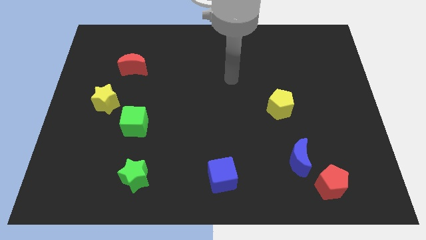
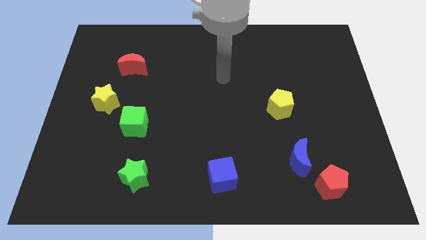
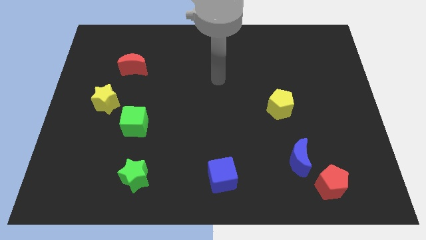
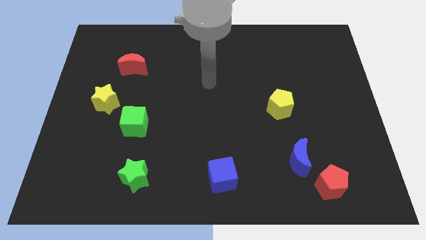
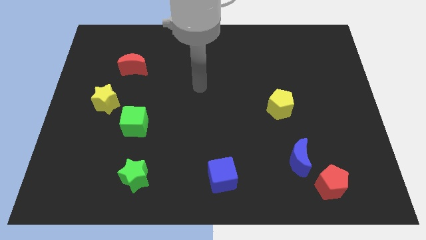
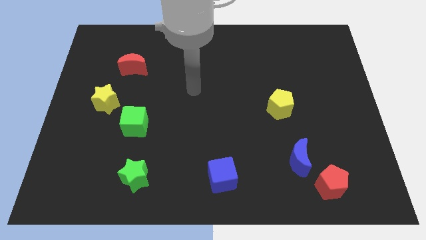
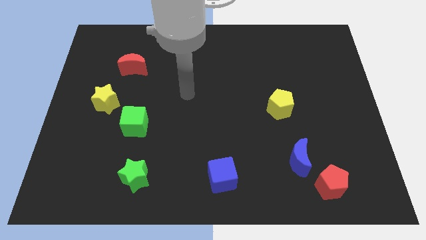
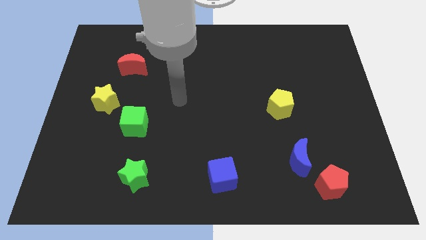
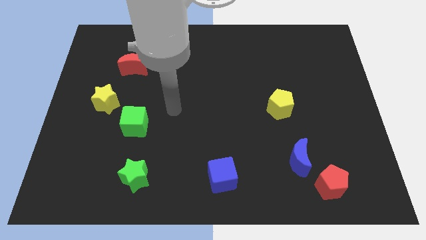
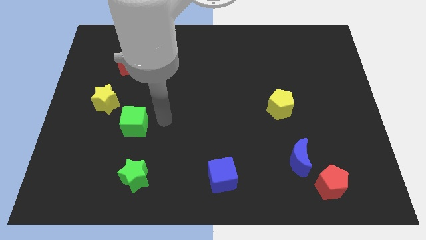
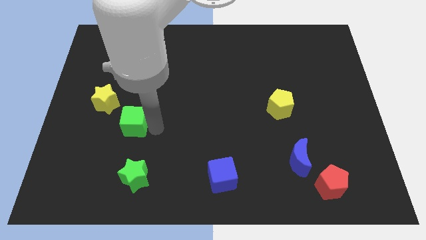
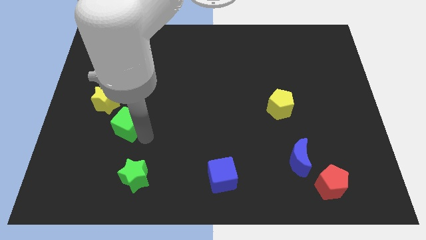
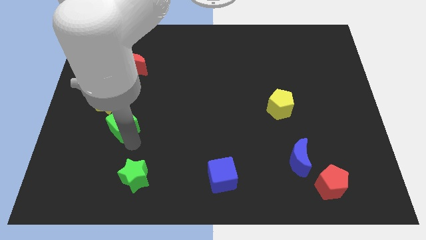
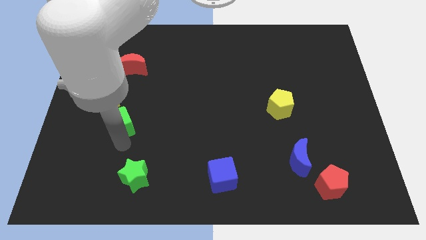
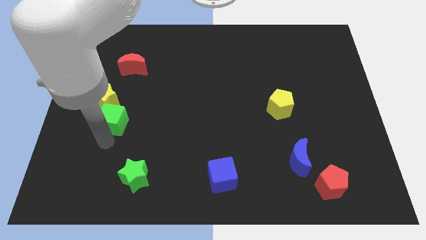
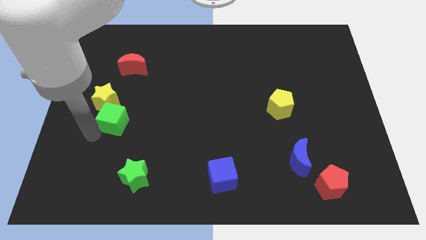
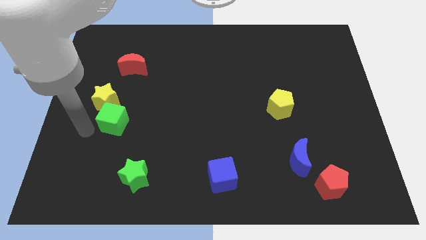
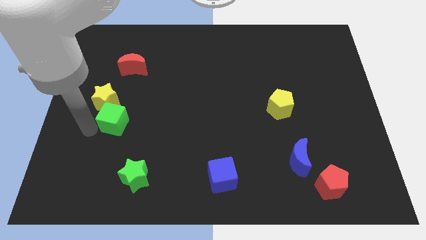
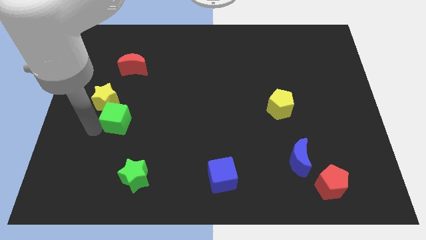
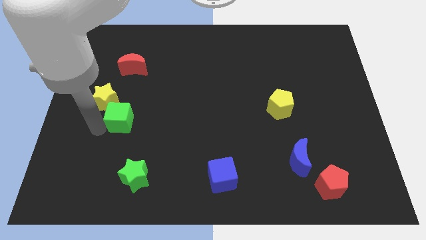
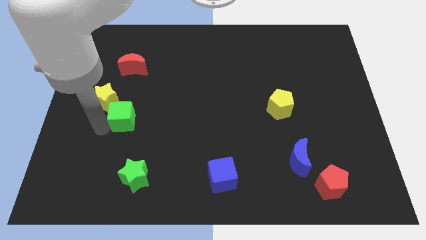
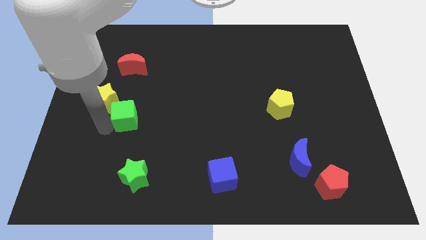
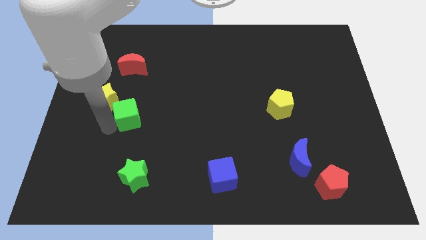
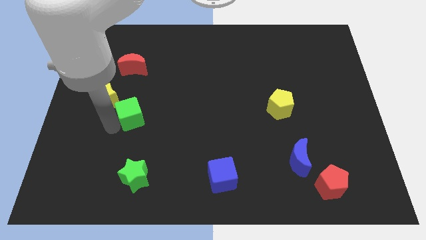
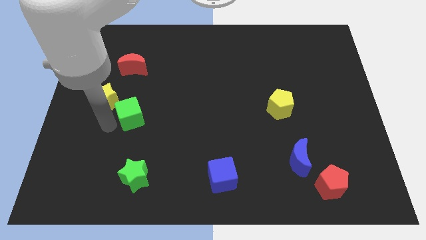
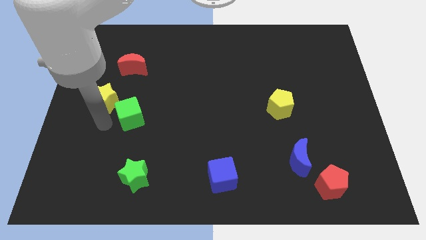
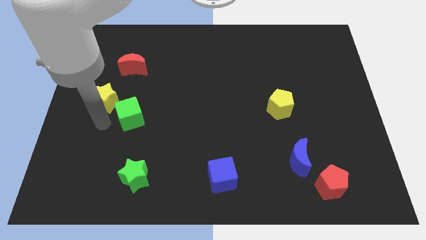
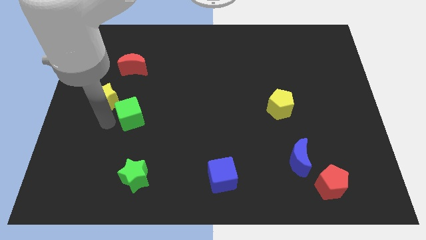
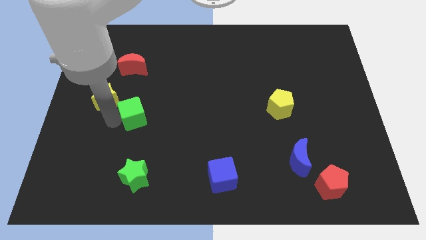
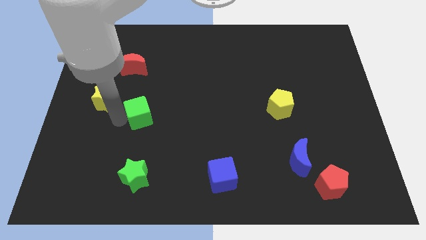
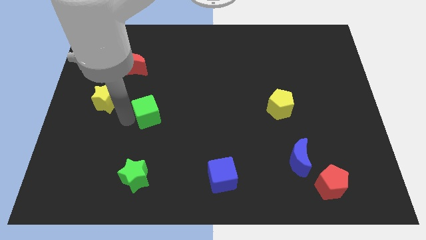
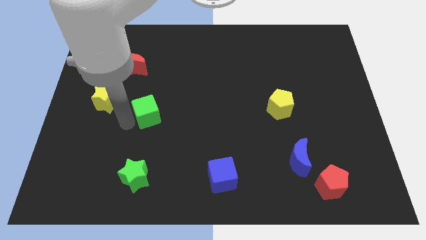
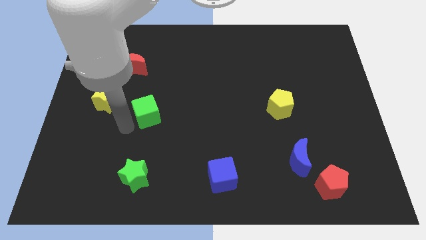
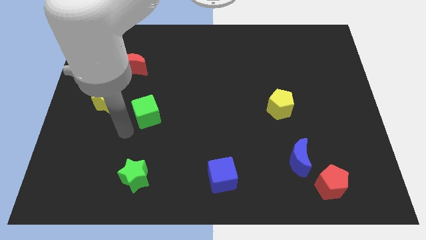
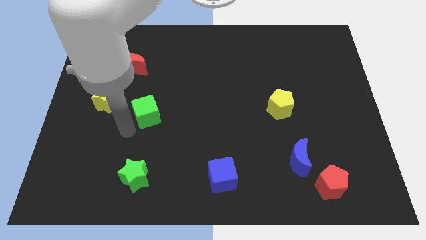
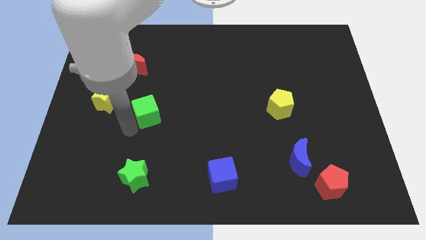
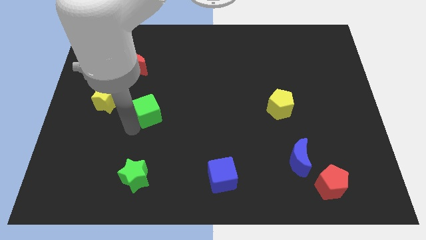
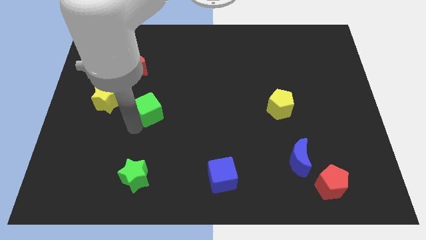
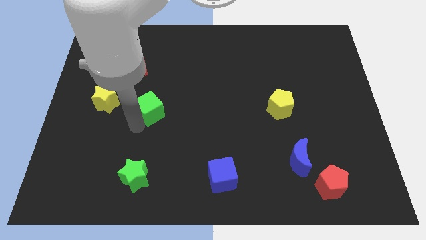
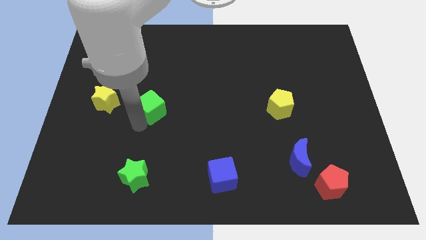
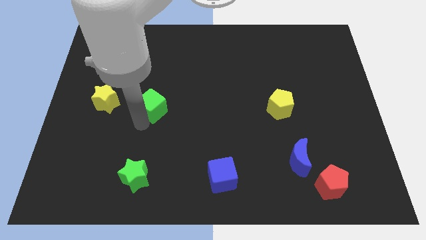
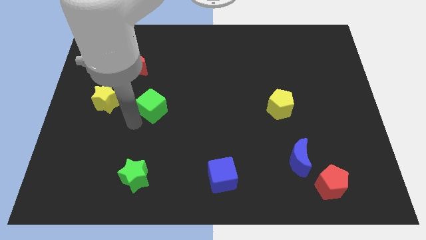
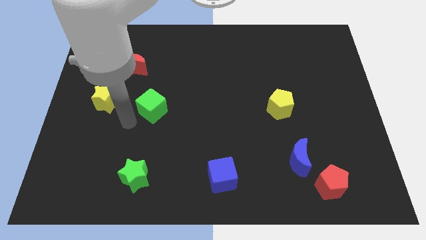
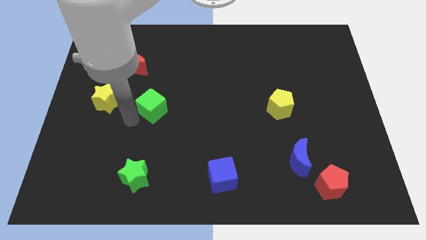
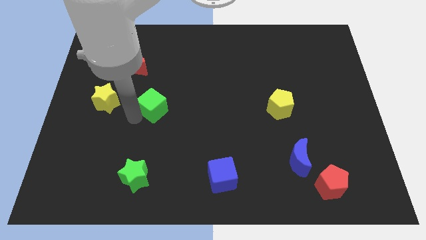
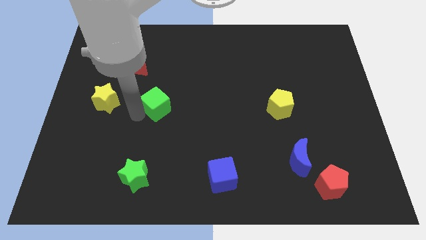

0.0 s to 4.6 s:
slide the green cube up and right diagonally a little bit

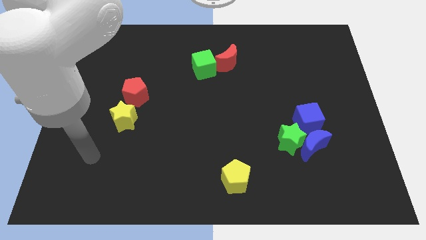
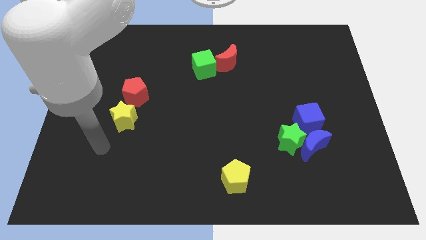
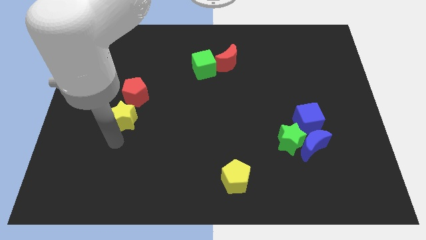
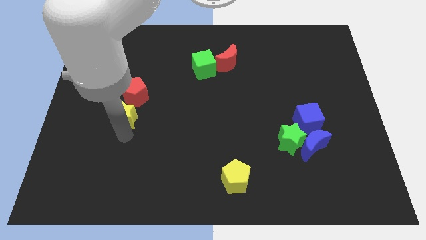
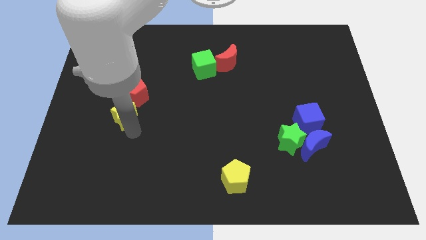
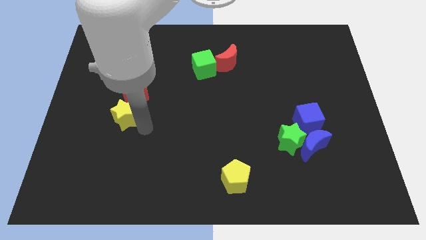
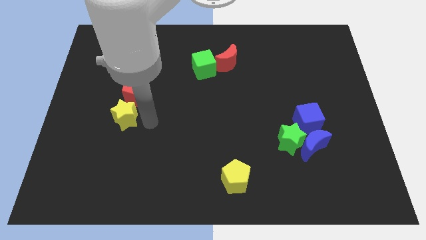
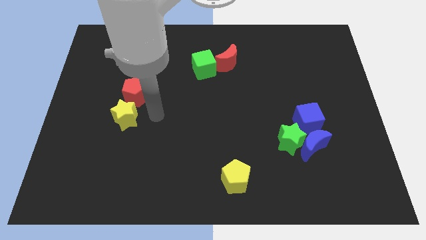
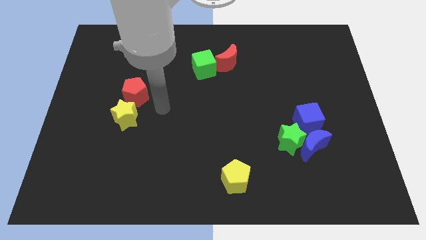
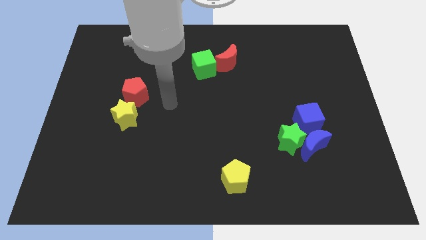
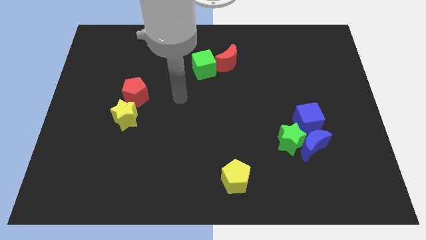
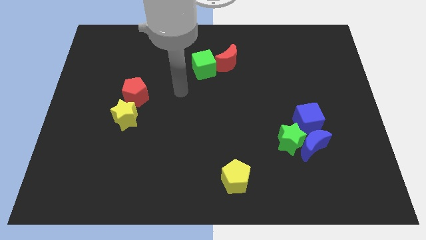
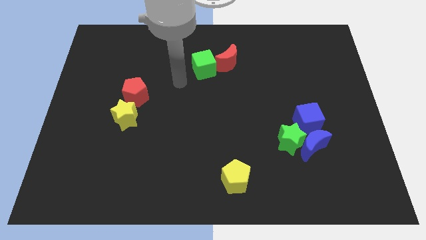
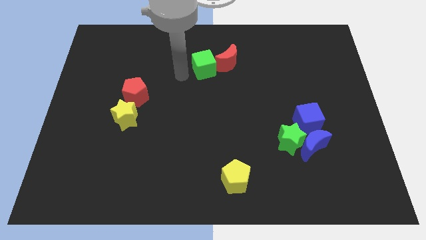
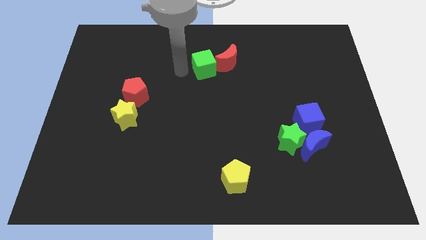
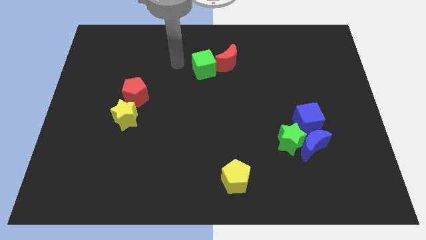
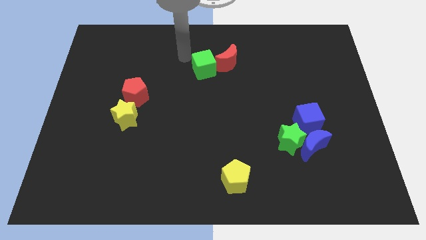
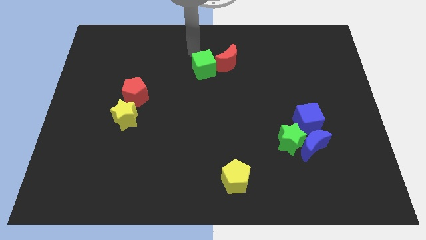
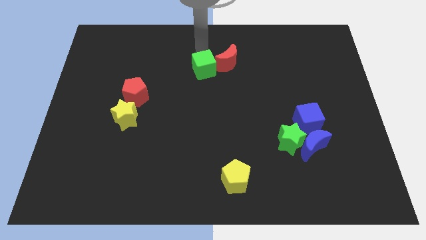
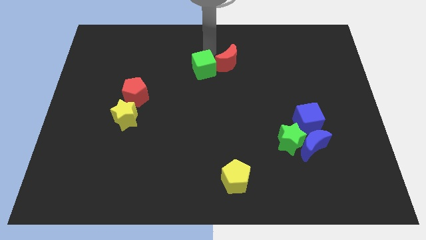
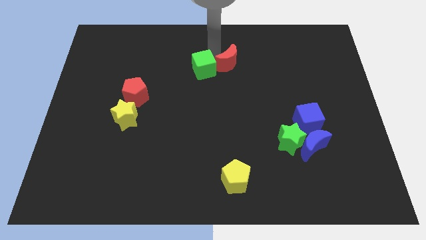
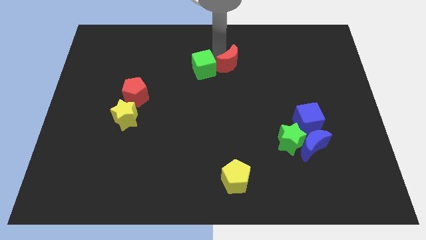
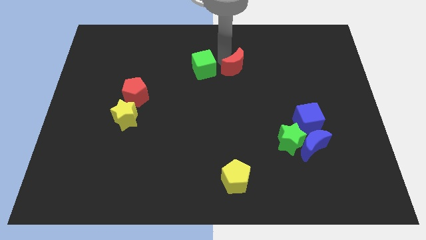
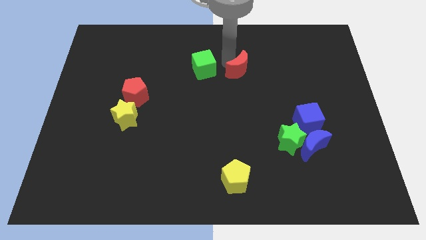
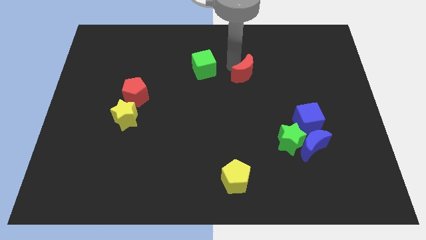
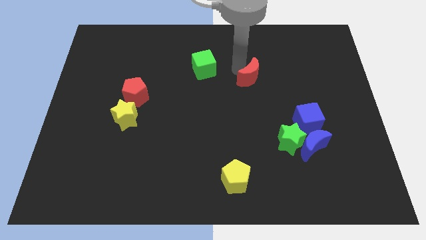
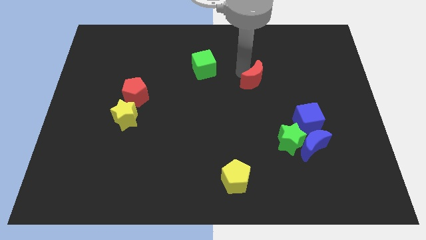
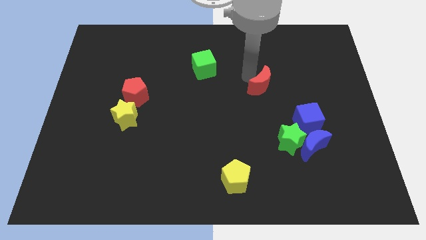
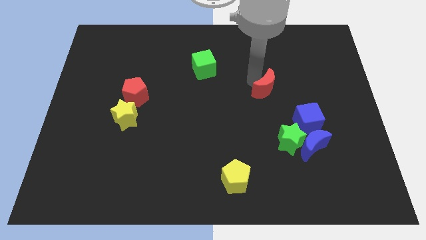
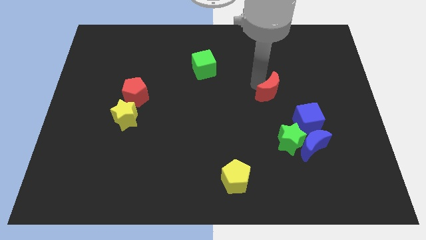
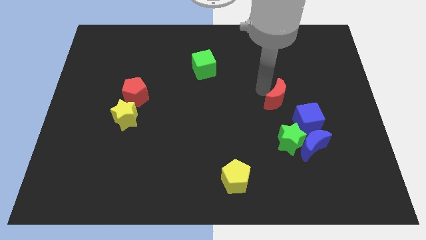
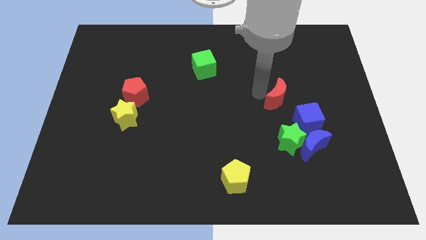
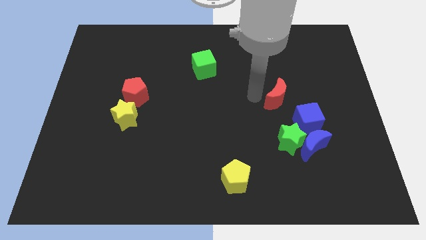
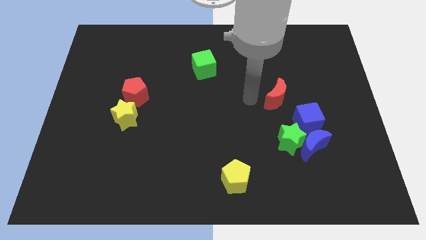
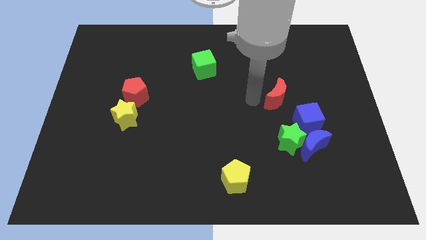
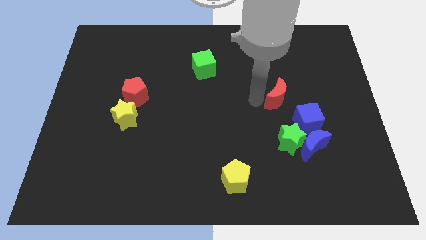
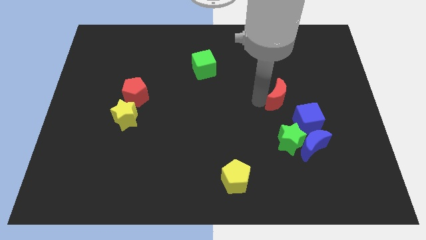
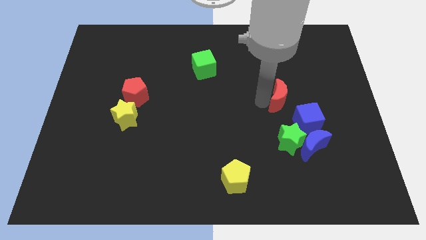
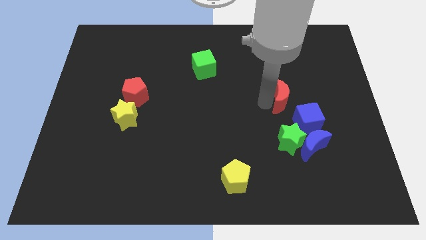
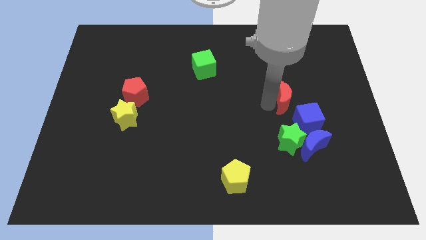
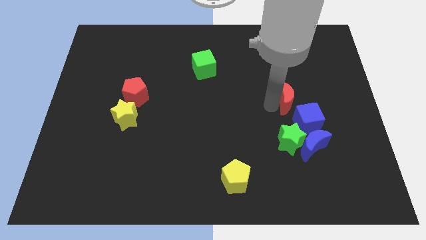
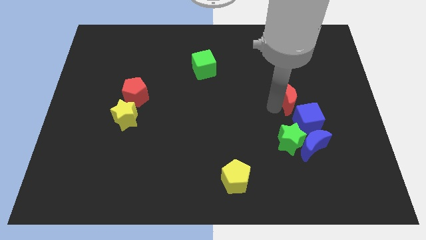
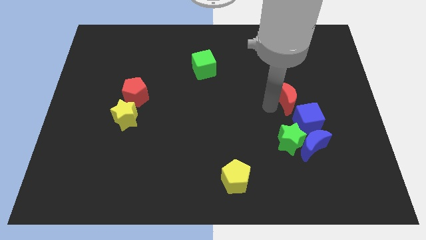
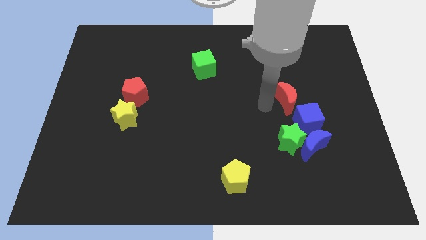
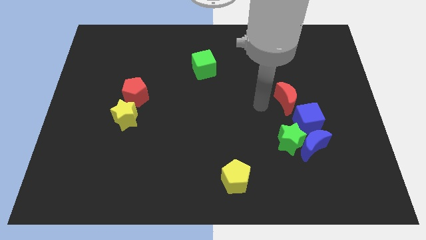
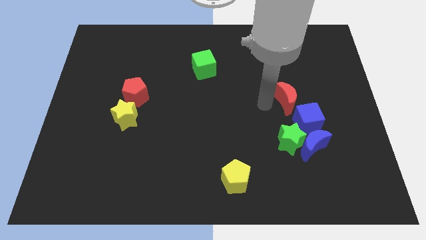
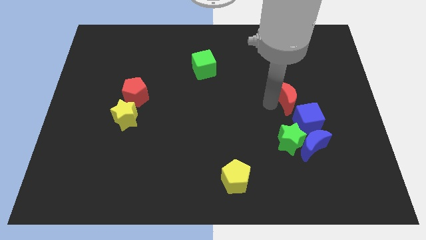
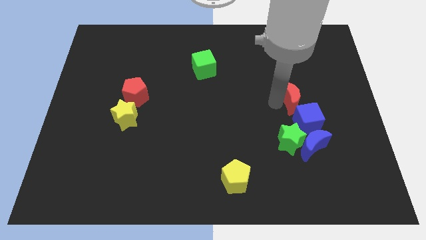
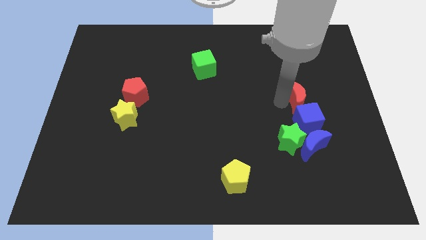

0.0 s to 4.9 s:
move the red moon down and to the right diagonally
